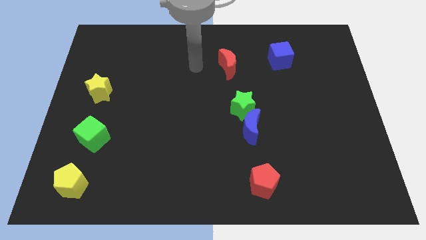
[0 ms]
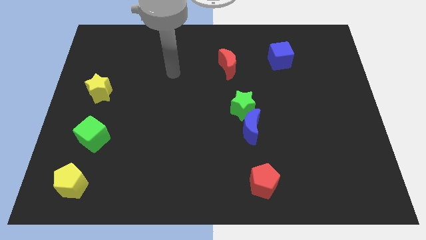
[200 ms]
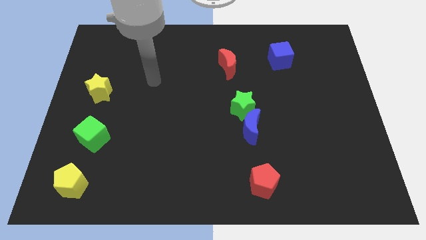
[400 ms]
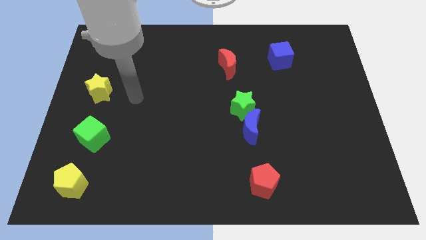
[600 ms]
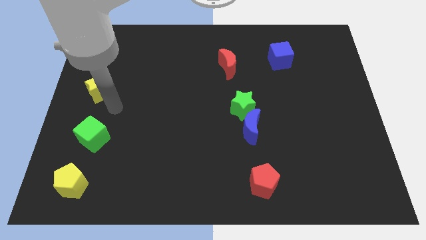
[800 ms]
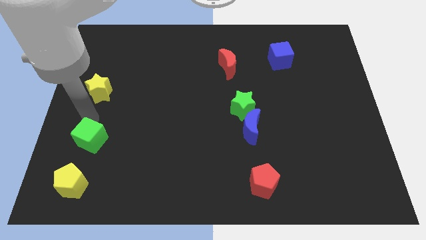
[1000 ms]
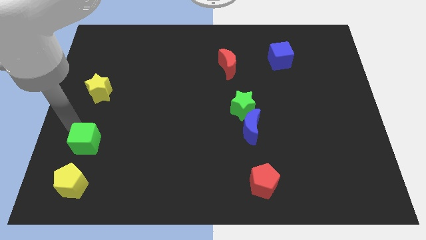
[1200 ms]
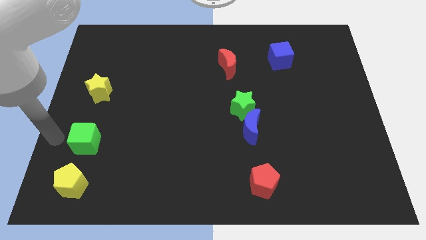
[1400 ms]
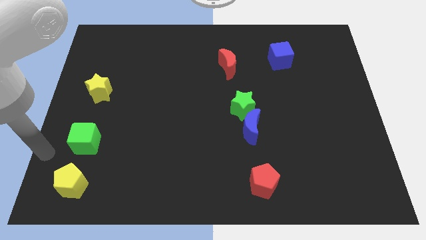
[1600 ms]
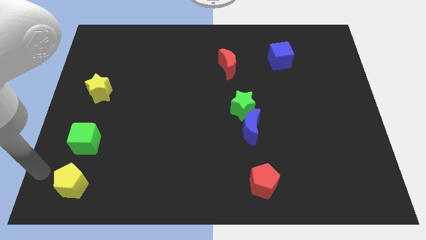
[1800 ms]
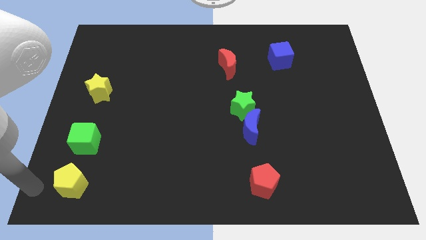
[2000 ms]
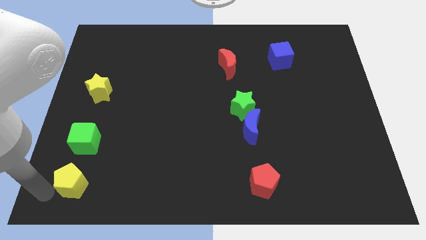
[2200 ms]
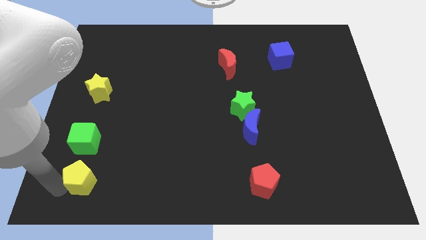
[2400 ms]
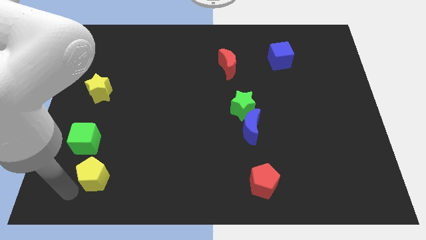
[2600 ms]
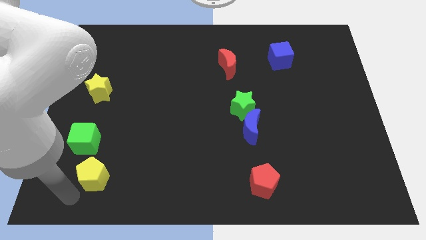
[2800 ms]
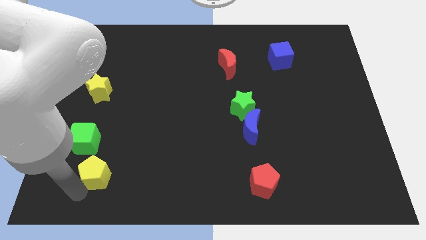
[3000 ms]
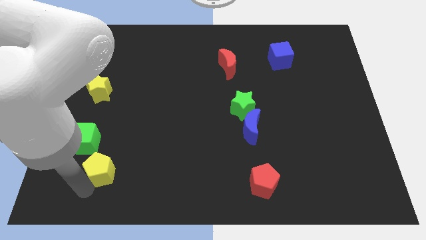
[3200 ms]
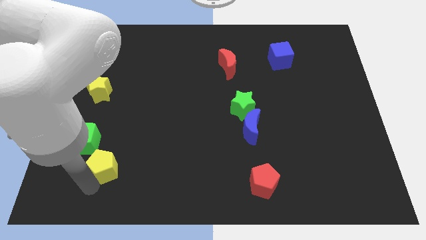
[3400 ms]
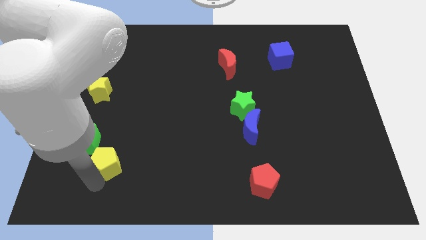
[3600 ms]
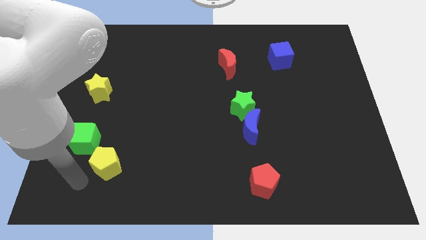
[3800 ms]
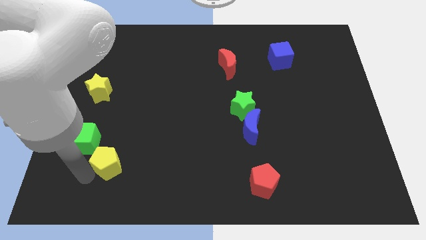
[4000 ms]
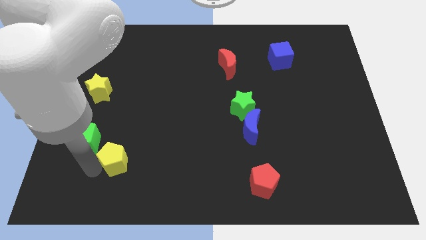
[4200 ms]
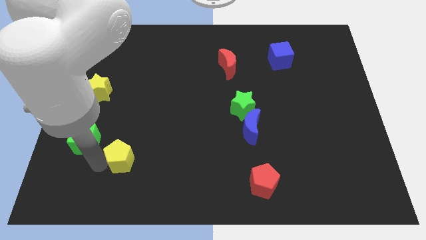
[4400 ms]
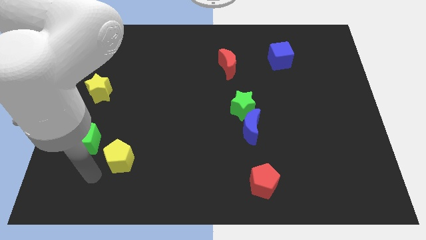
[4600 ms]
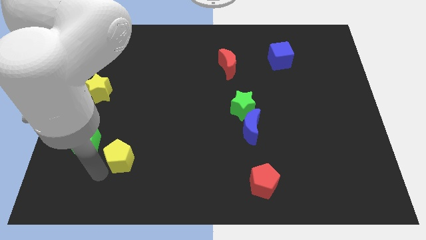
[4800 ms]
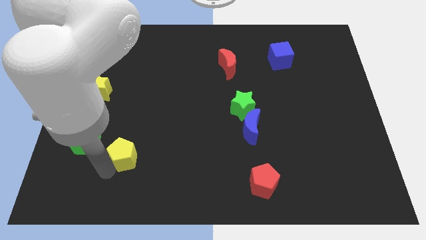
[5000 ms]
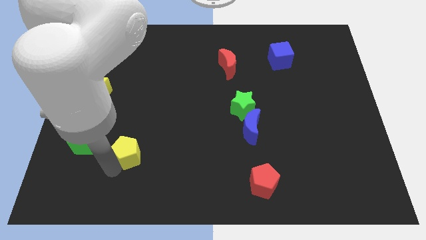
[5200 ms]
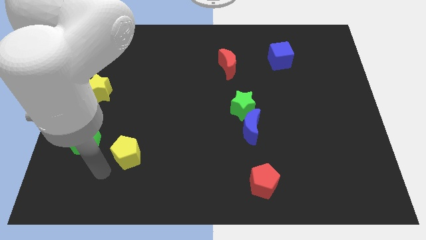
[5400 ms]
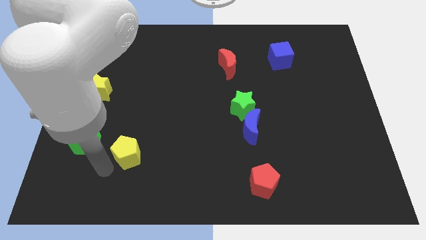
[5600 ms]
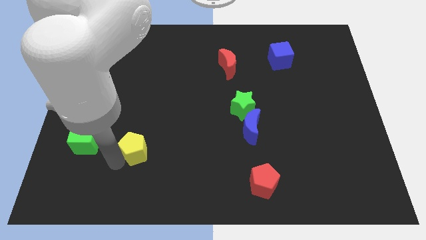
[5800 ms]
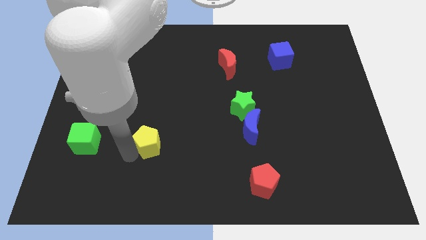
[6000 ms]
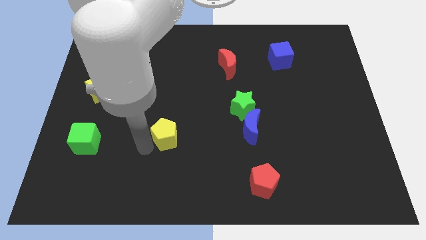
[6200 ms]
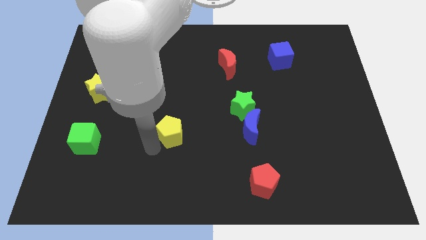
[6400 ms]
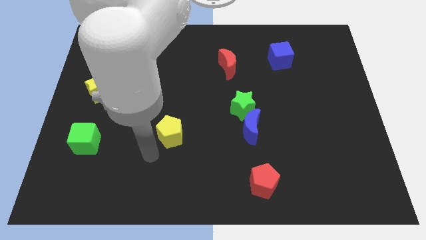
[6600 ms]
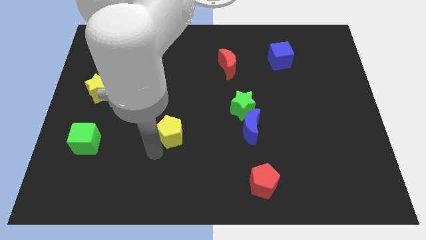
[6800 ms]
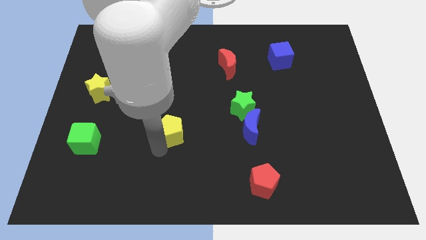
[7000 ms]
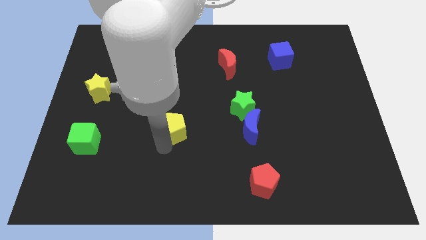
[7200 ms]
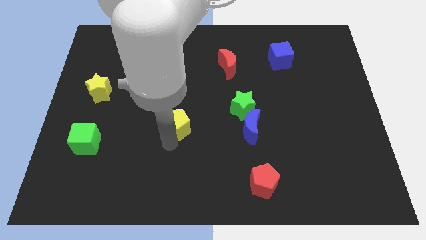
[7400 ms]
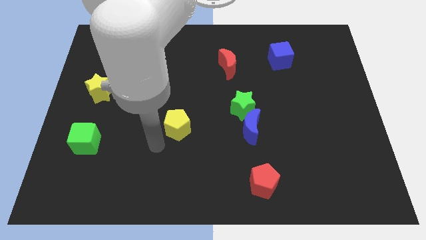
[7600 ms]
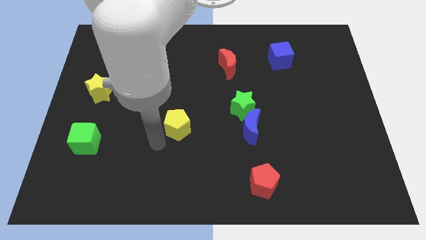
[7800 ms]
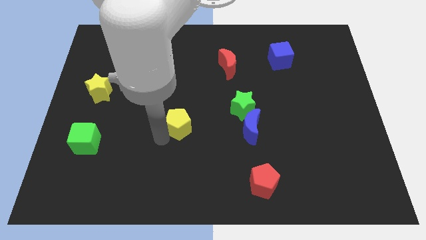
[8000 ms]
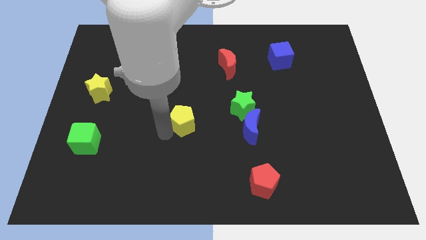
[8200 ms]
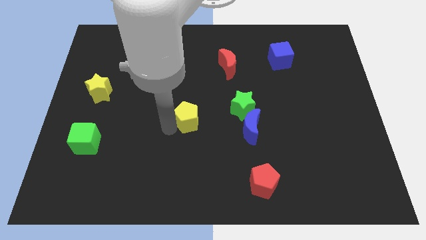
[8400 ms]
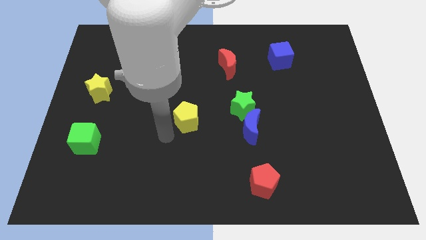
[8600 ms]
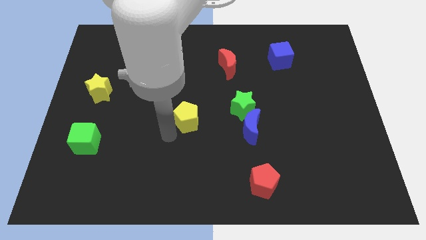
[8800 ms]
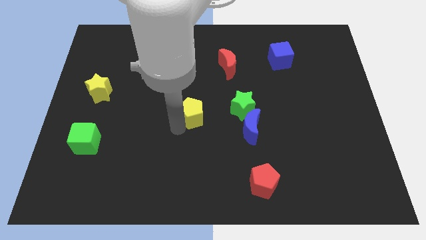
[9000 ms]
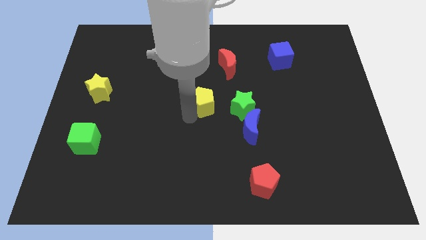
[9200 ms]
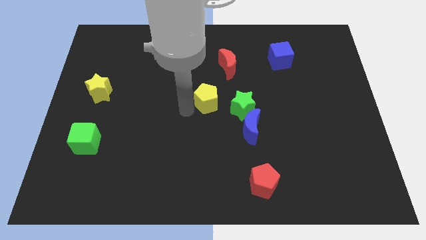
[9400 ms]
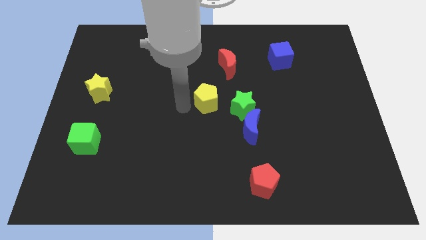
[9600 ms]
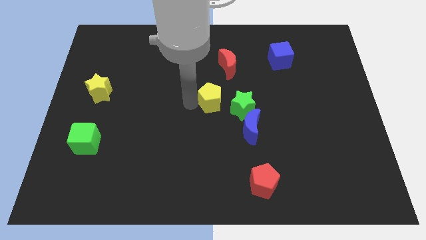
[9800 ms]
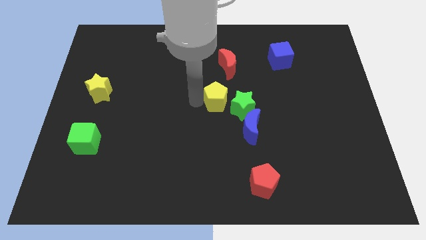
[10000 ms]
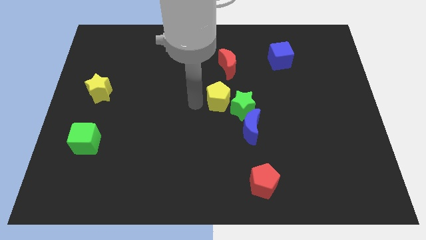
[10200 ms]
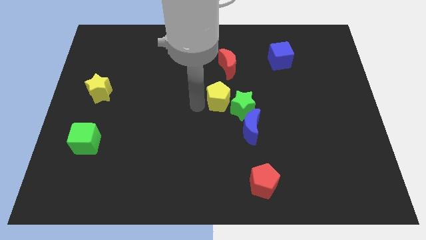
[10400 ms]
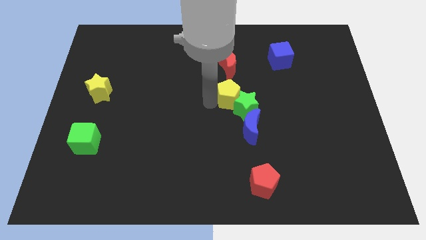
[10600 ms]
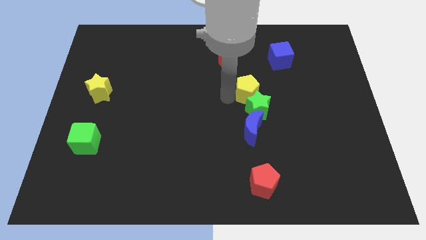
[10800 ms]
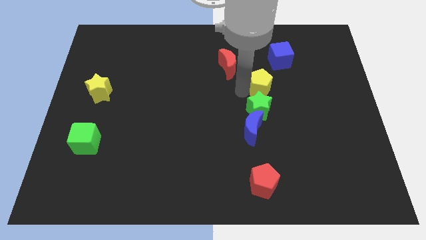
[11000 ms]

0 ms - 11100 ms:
move the yellow pentagon to the top right side of the green star

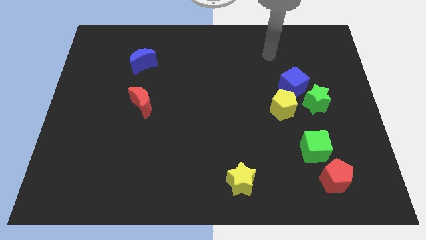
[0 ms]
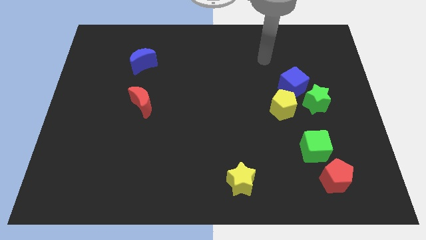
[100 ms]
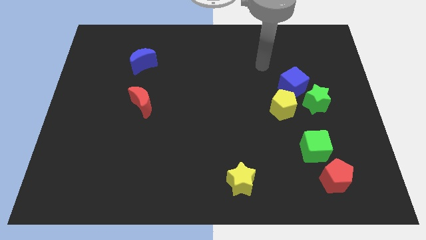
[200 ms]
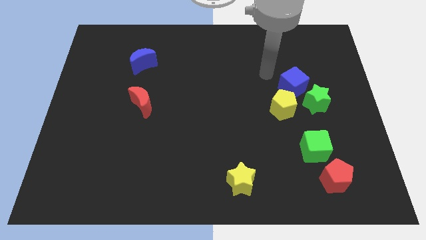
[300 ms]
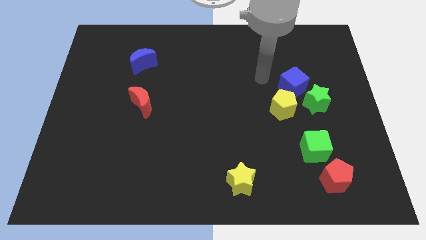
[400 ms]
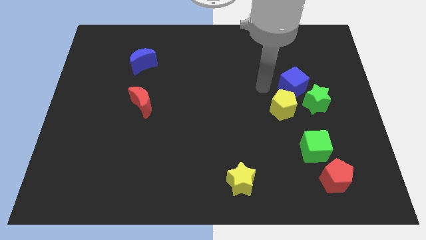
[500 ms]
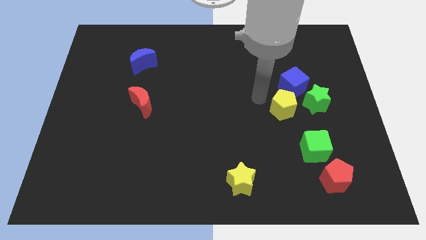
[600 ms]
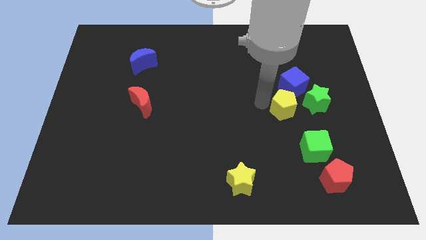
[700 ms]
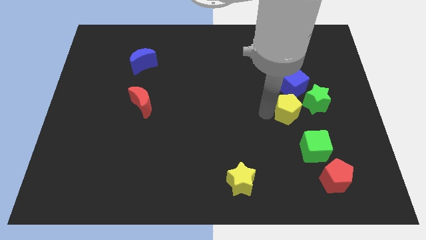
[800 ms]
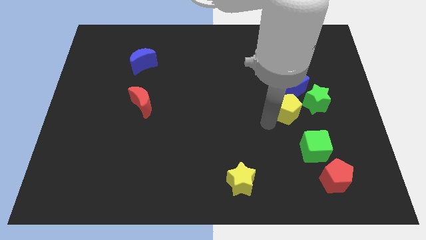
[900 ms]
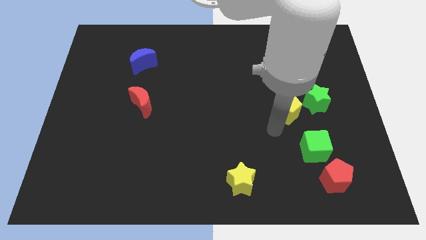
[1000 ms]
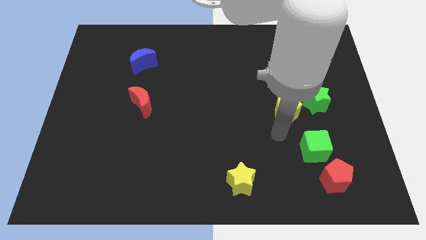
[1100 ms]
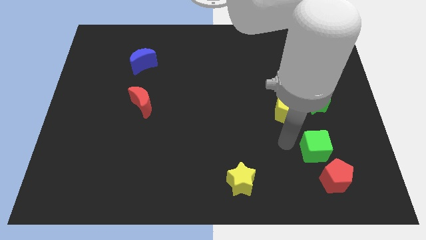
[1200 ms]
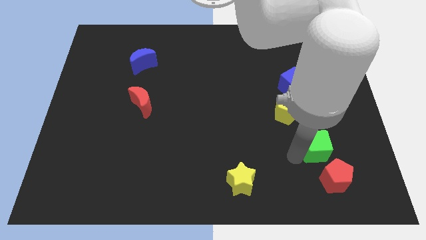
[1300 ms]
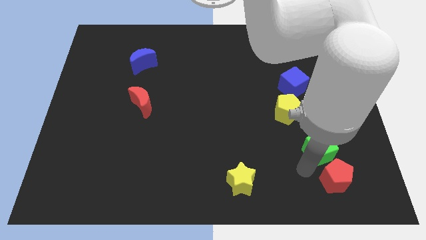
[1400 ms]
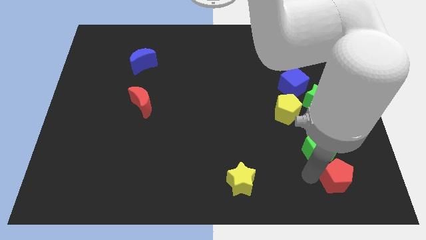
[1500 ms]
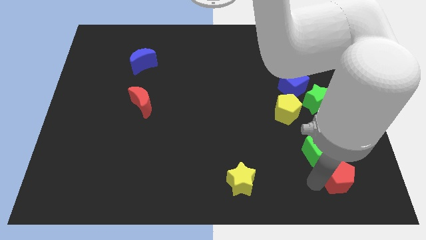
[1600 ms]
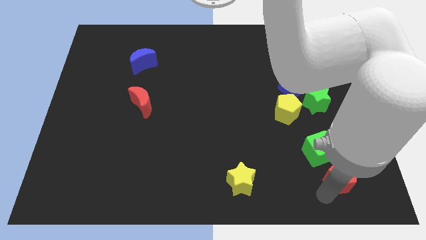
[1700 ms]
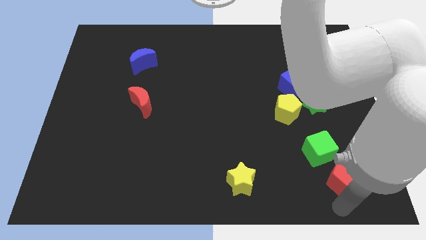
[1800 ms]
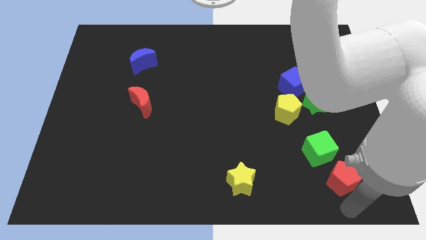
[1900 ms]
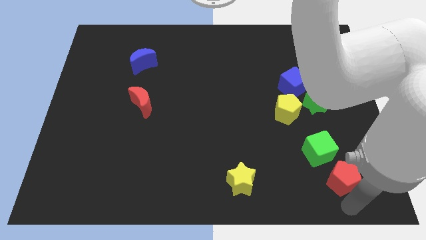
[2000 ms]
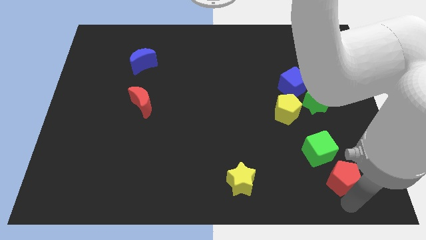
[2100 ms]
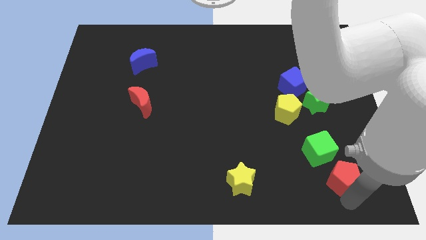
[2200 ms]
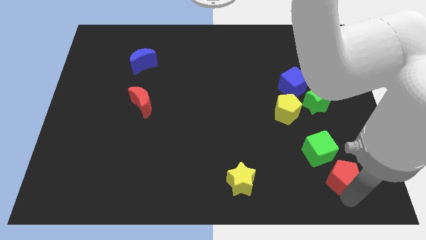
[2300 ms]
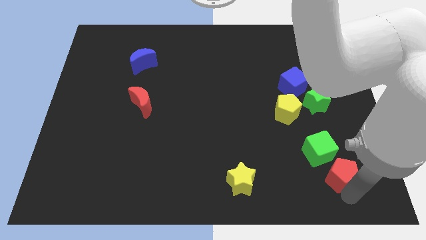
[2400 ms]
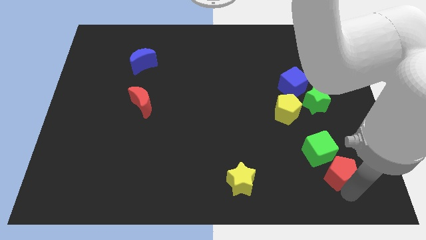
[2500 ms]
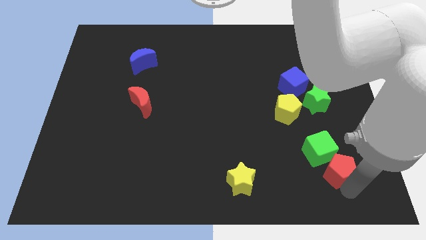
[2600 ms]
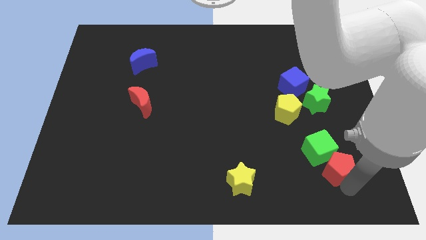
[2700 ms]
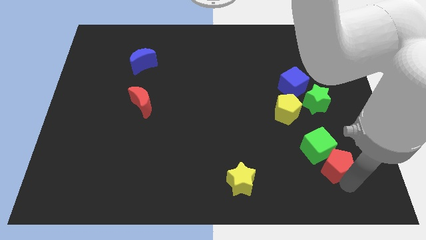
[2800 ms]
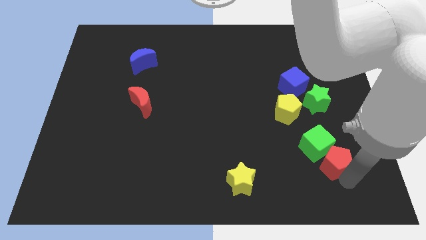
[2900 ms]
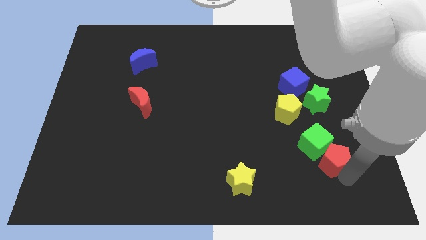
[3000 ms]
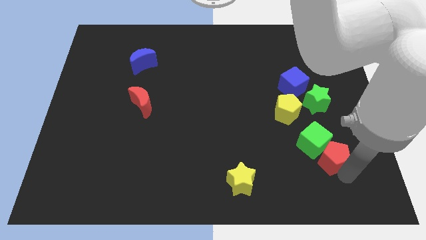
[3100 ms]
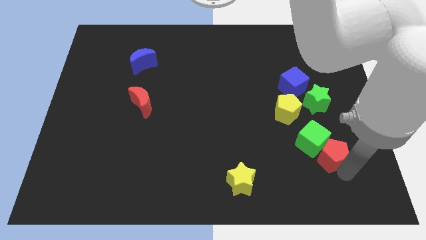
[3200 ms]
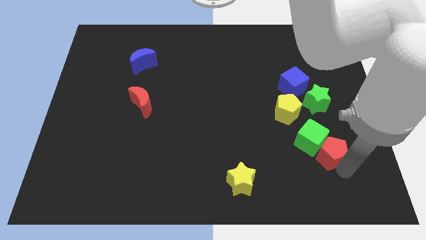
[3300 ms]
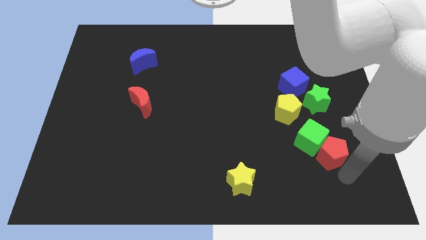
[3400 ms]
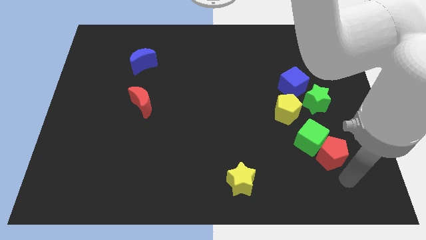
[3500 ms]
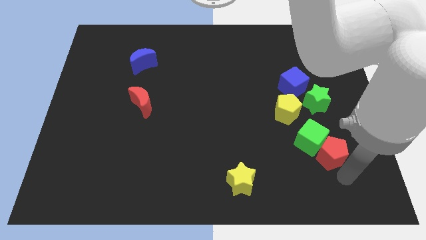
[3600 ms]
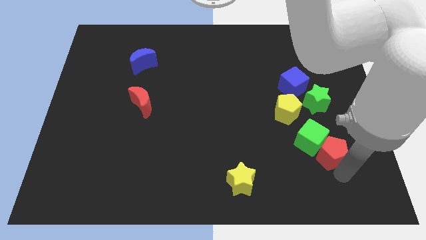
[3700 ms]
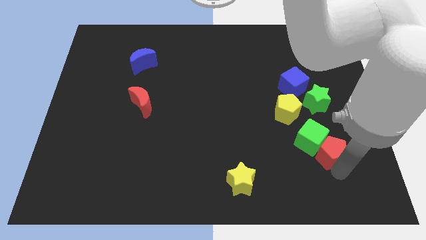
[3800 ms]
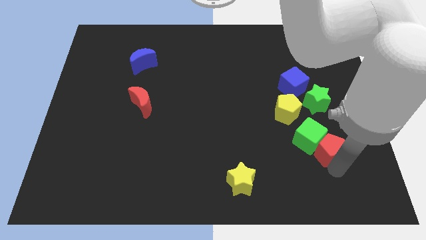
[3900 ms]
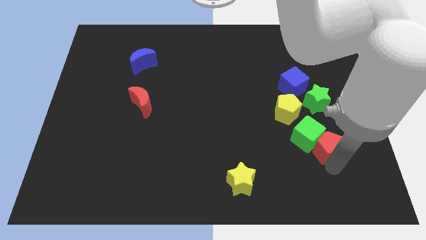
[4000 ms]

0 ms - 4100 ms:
slide the red pentagon diagonally down and to the right of the yellow pentagon
